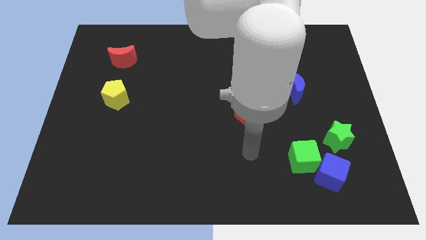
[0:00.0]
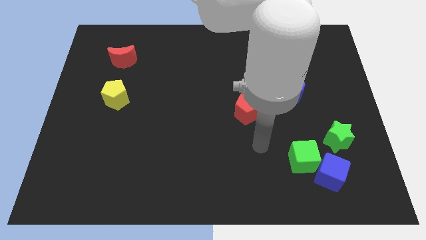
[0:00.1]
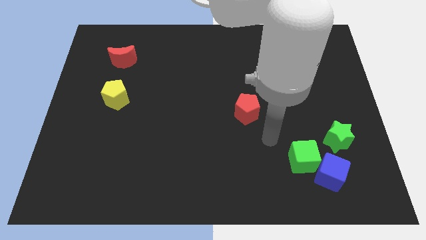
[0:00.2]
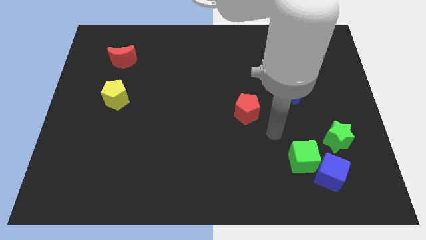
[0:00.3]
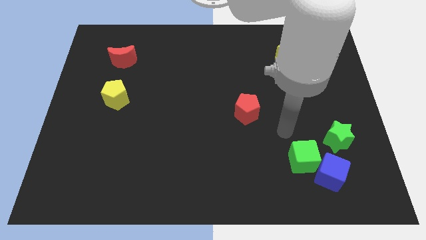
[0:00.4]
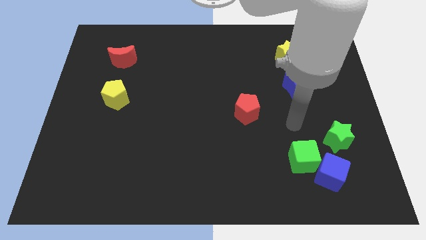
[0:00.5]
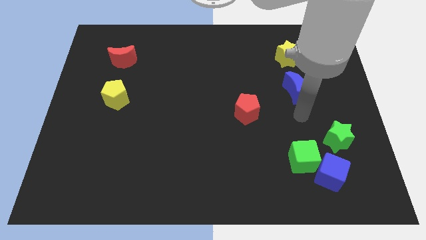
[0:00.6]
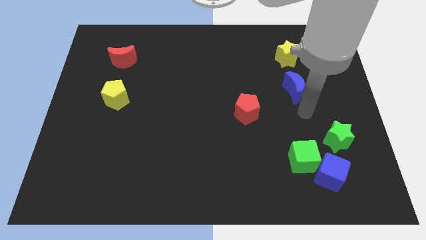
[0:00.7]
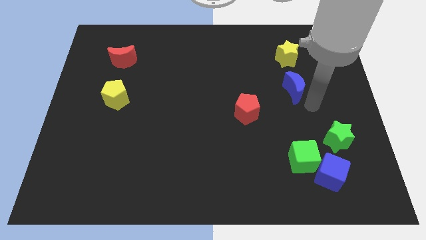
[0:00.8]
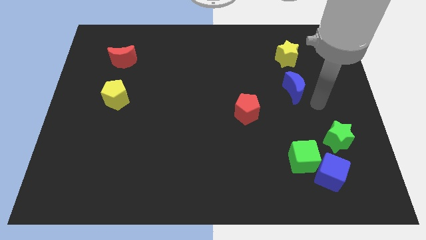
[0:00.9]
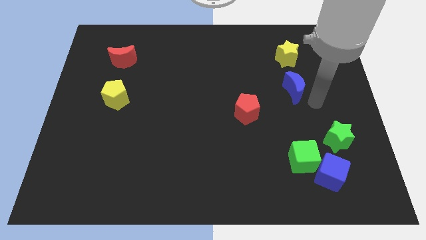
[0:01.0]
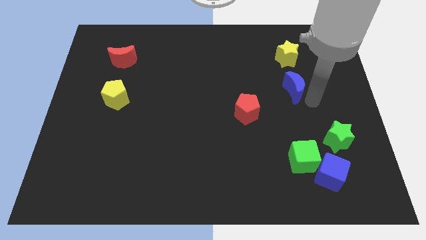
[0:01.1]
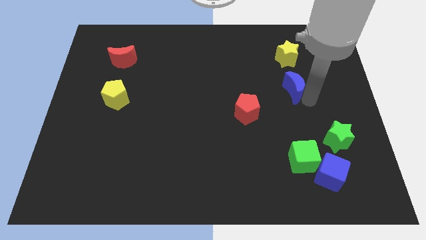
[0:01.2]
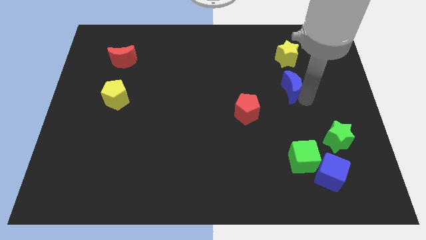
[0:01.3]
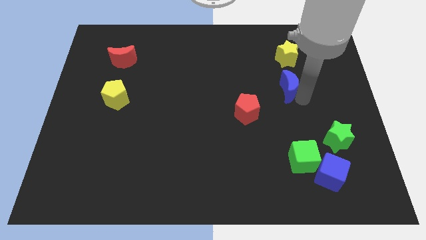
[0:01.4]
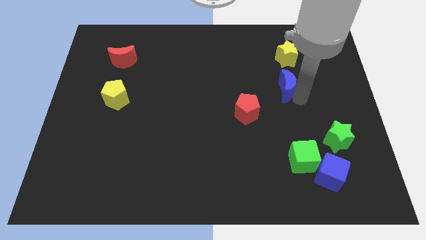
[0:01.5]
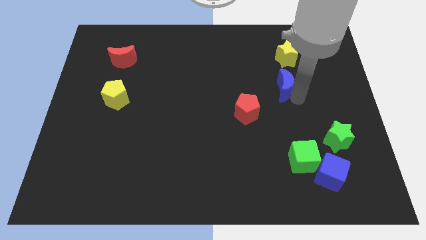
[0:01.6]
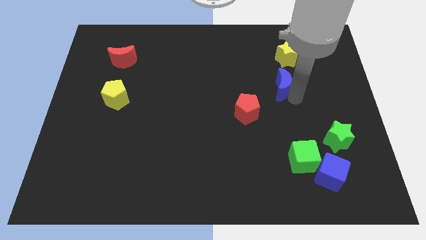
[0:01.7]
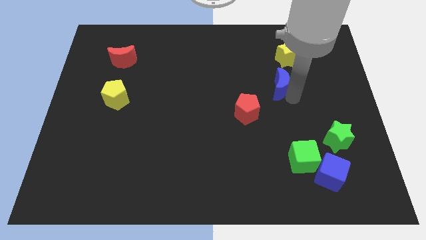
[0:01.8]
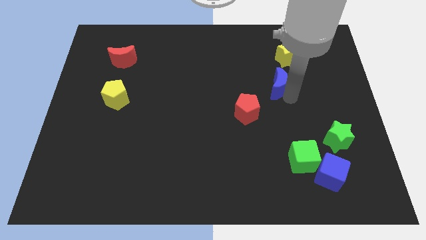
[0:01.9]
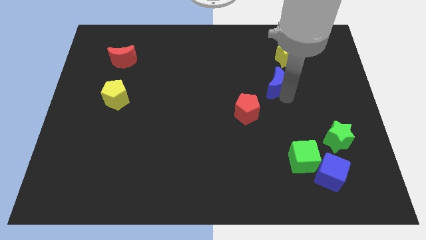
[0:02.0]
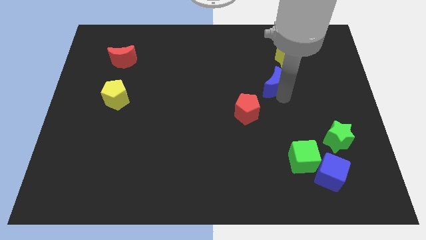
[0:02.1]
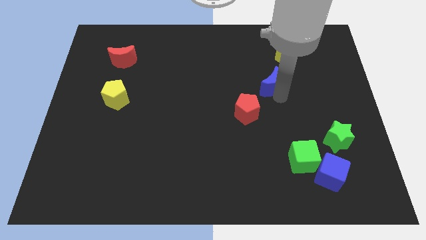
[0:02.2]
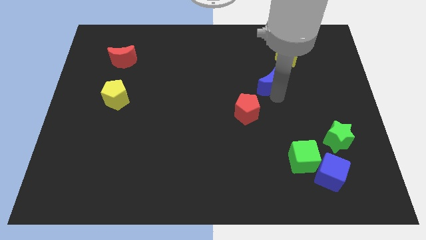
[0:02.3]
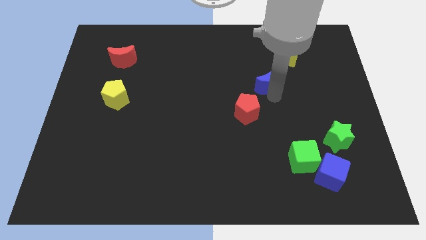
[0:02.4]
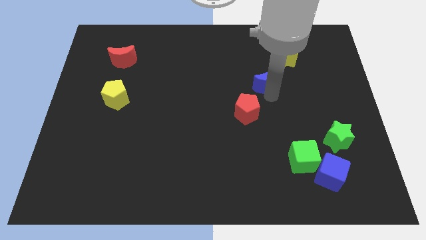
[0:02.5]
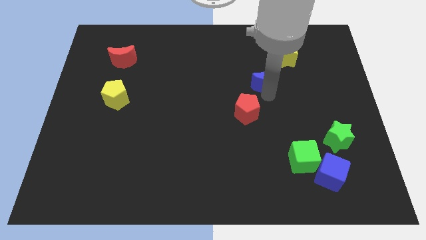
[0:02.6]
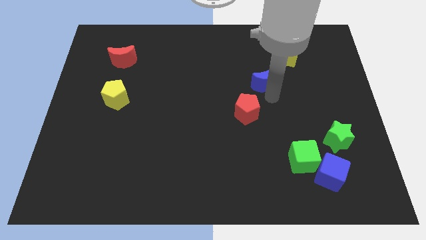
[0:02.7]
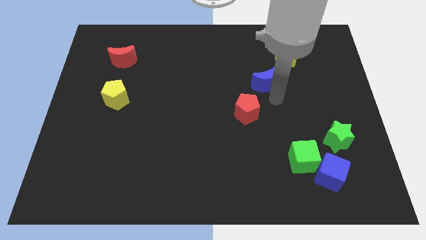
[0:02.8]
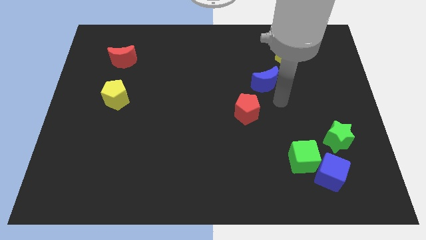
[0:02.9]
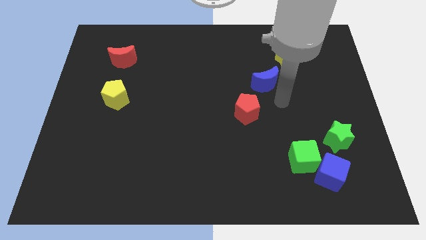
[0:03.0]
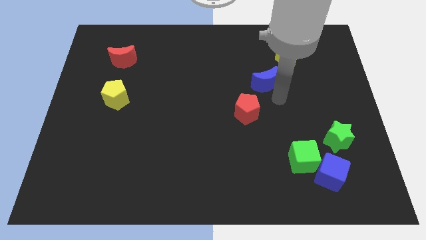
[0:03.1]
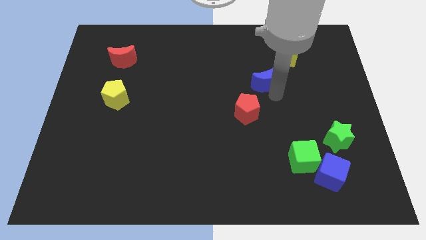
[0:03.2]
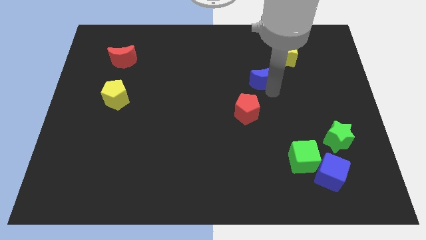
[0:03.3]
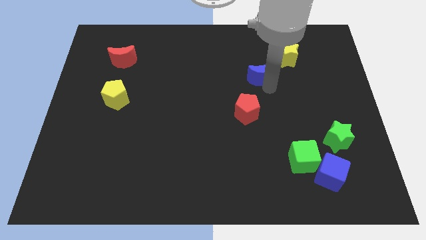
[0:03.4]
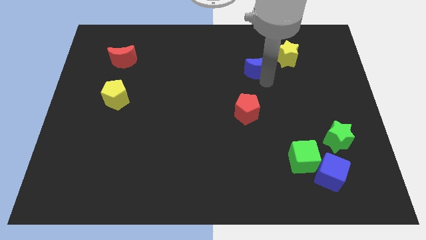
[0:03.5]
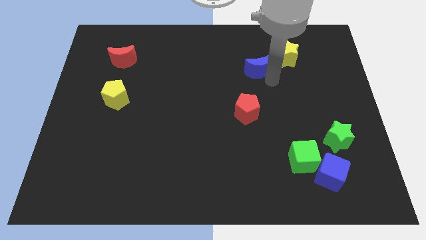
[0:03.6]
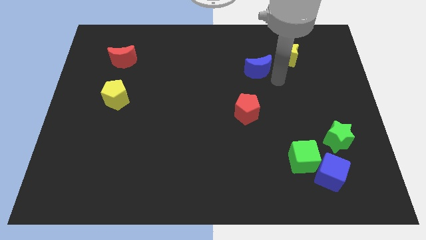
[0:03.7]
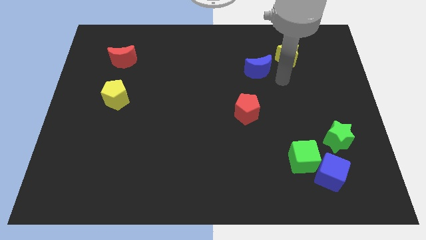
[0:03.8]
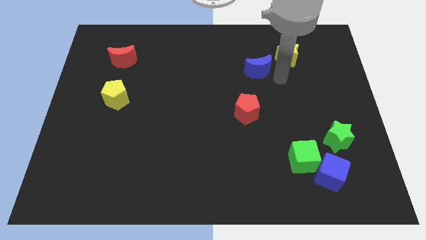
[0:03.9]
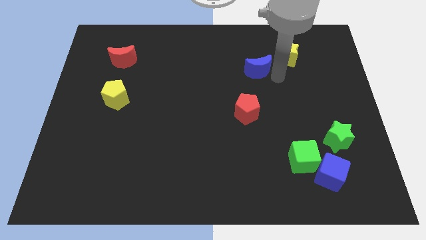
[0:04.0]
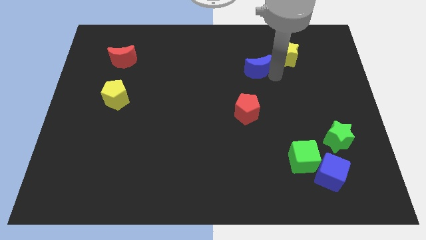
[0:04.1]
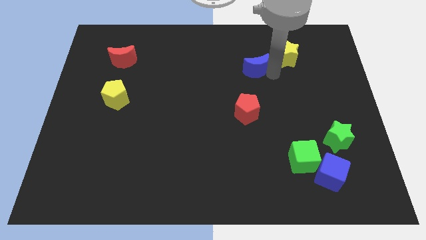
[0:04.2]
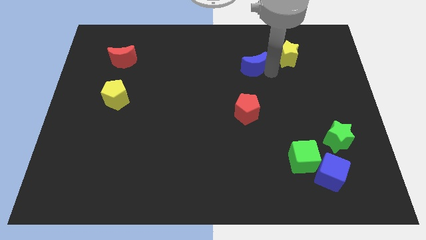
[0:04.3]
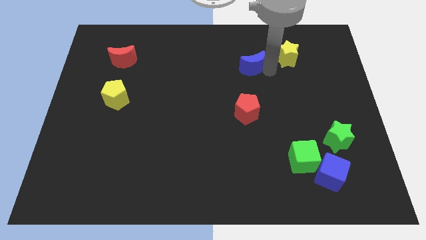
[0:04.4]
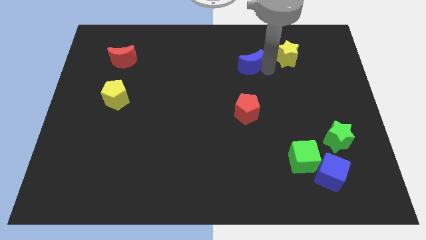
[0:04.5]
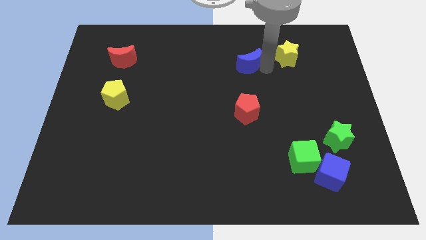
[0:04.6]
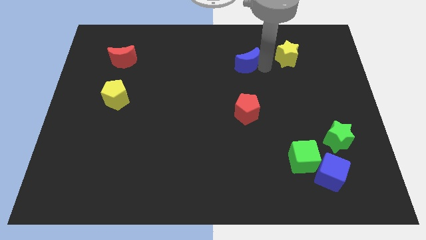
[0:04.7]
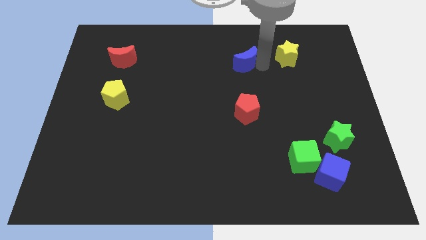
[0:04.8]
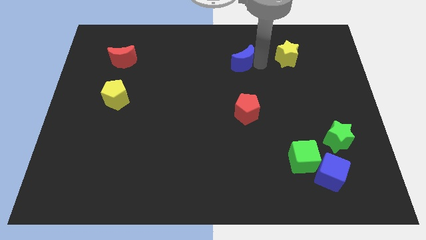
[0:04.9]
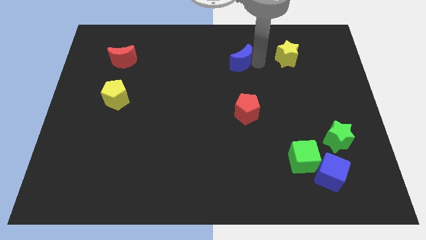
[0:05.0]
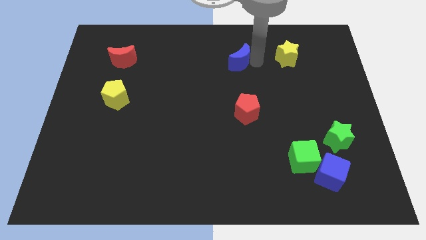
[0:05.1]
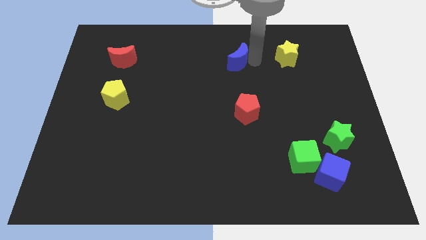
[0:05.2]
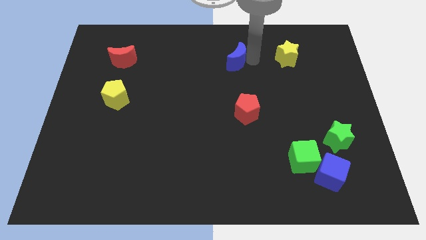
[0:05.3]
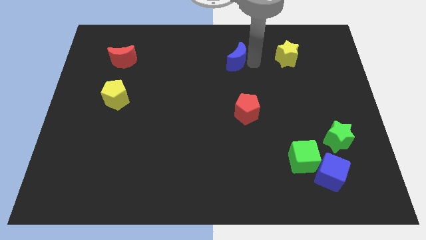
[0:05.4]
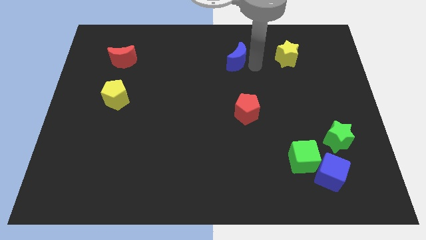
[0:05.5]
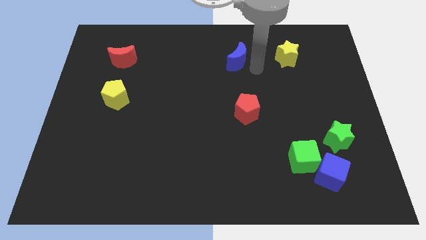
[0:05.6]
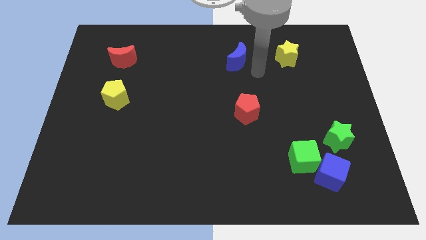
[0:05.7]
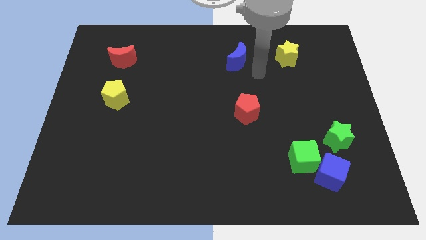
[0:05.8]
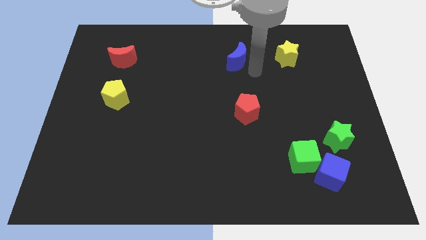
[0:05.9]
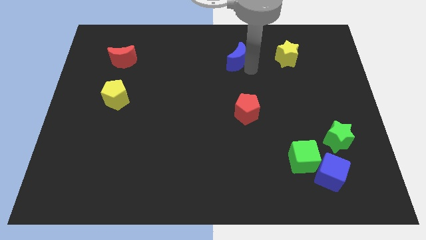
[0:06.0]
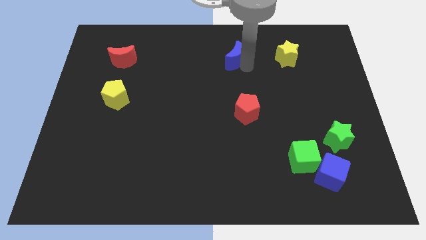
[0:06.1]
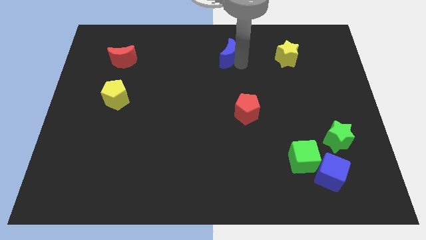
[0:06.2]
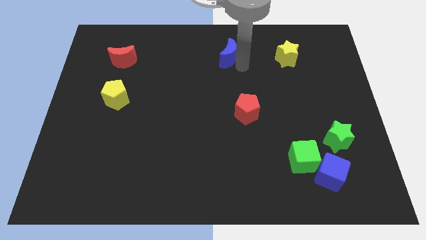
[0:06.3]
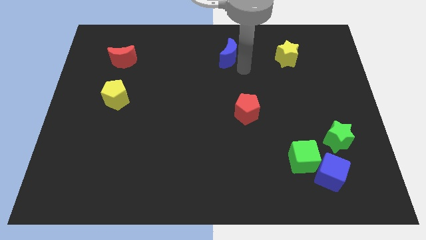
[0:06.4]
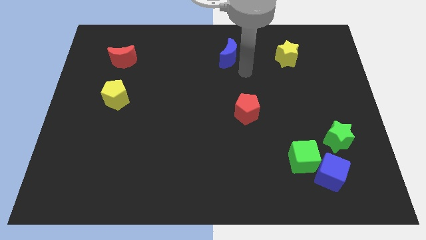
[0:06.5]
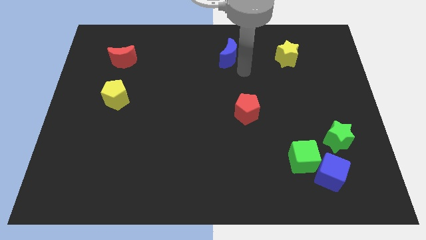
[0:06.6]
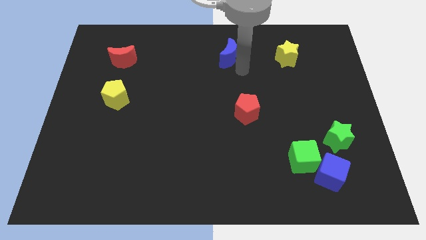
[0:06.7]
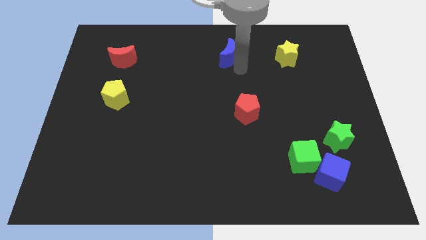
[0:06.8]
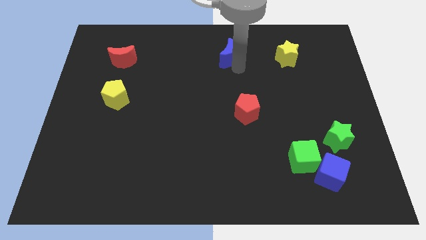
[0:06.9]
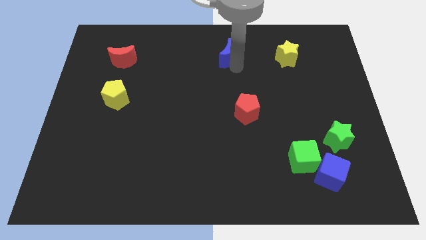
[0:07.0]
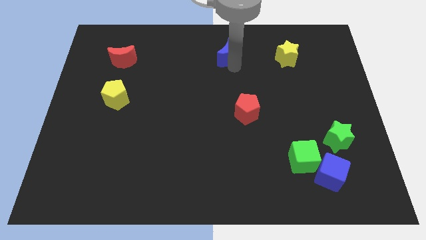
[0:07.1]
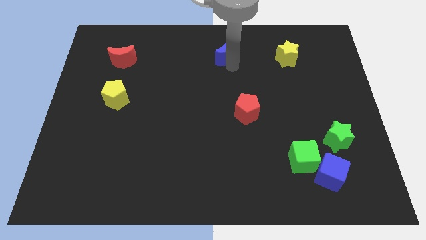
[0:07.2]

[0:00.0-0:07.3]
slide the blue moon to the top side
